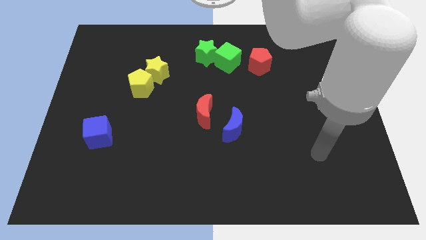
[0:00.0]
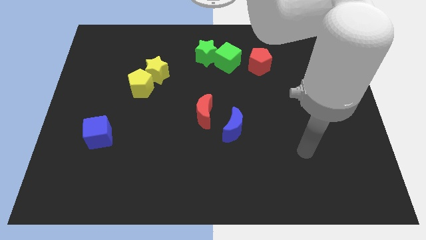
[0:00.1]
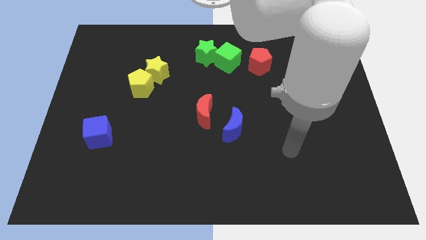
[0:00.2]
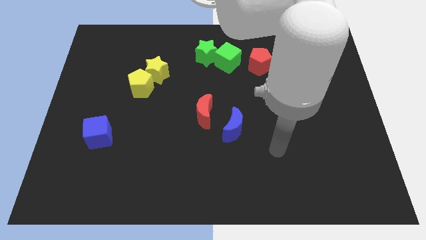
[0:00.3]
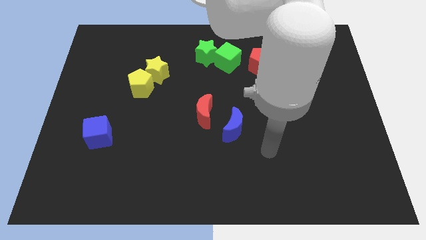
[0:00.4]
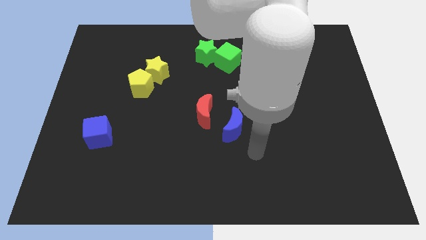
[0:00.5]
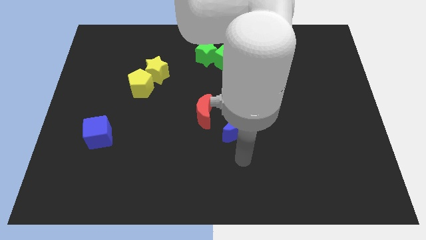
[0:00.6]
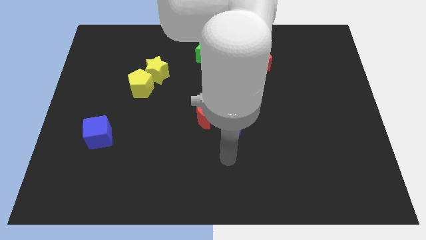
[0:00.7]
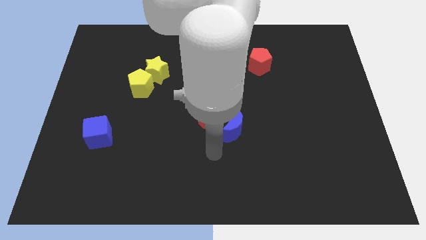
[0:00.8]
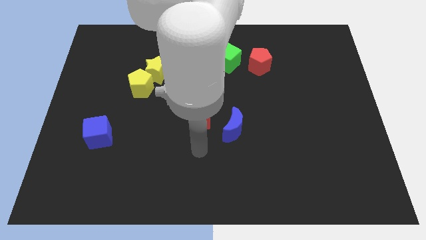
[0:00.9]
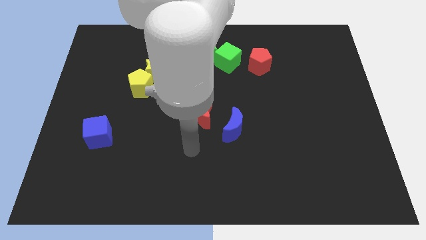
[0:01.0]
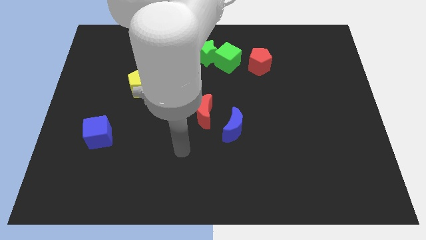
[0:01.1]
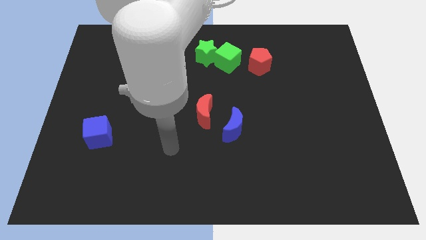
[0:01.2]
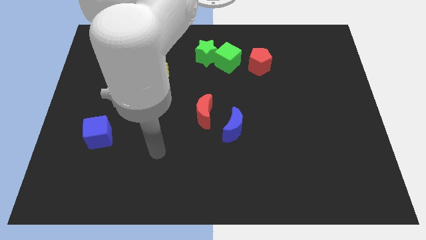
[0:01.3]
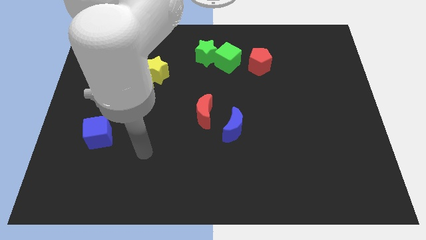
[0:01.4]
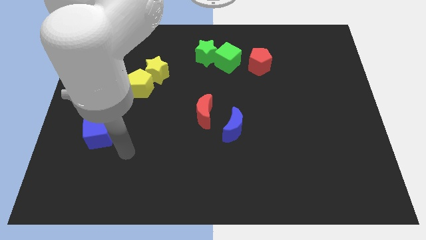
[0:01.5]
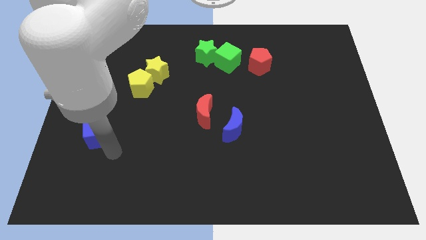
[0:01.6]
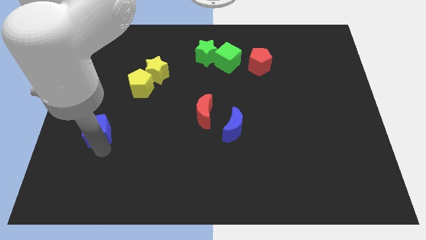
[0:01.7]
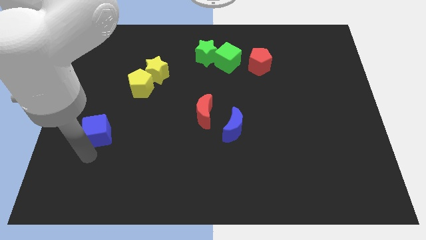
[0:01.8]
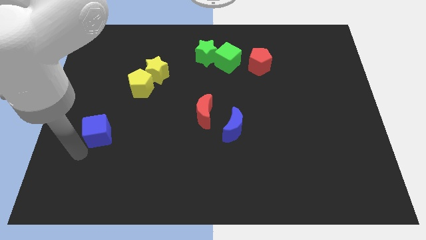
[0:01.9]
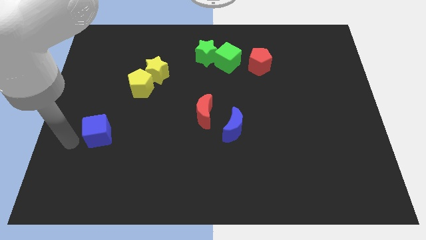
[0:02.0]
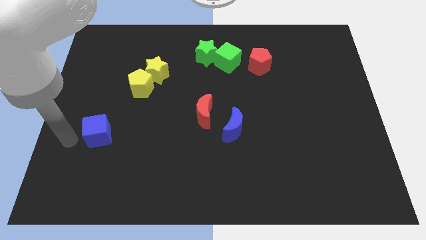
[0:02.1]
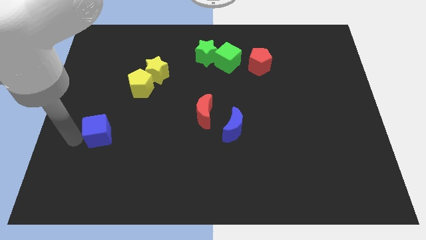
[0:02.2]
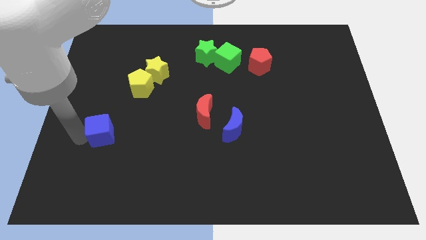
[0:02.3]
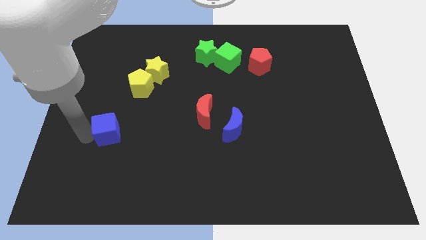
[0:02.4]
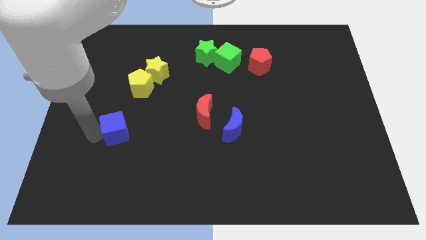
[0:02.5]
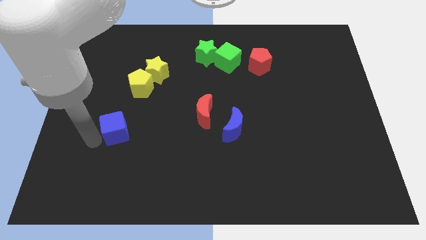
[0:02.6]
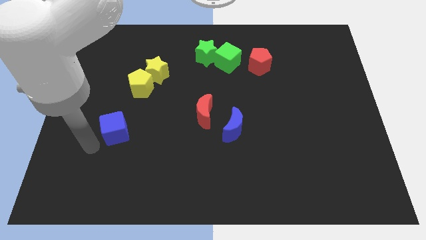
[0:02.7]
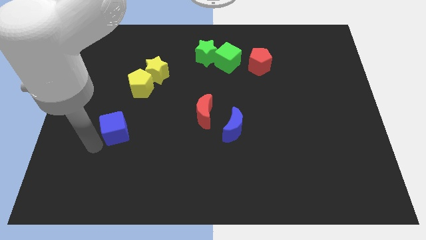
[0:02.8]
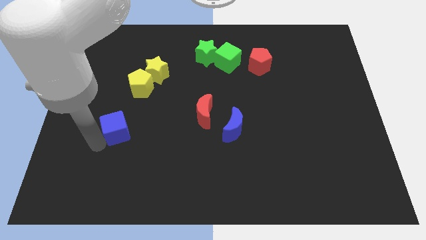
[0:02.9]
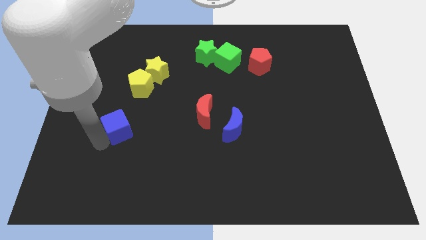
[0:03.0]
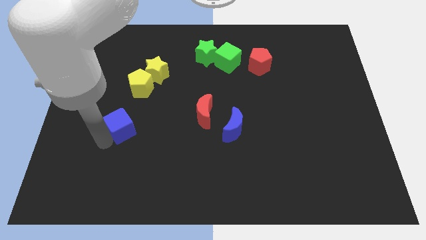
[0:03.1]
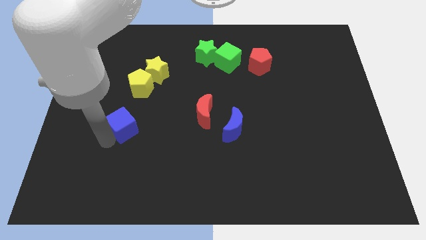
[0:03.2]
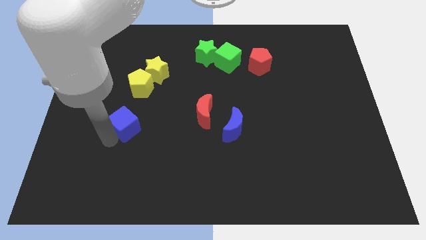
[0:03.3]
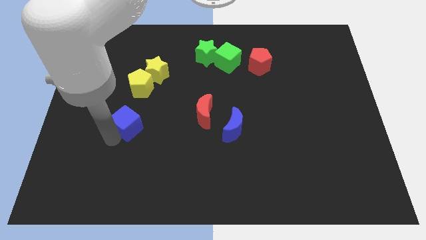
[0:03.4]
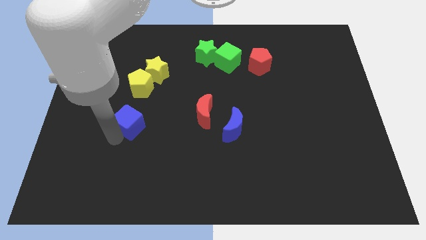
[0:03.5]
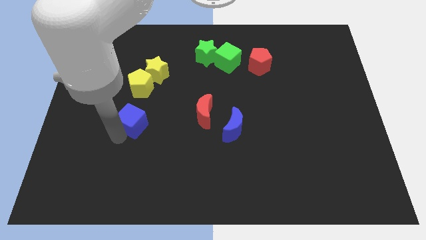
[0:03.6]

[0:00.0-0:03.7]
push the blue cube upwards and right a little

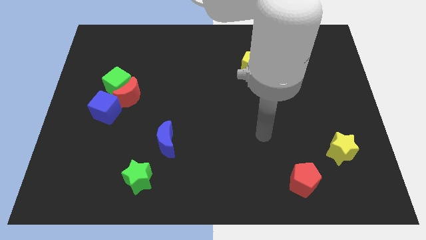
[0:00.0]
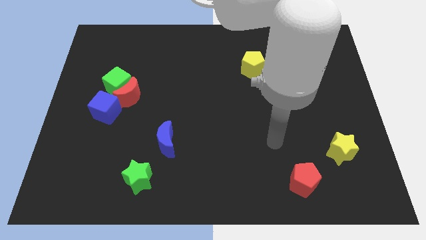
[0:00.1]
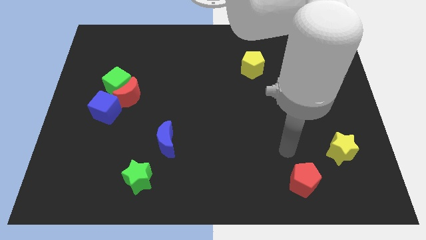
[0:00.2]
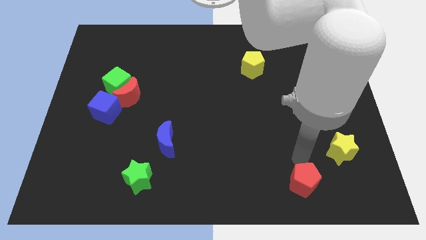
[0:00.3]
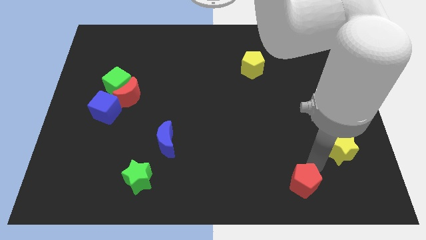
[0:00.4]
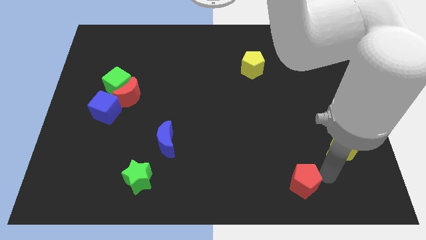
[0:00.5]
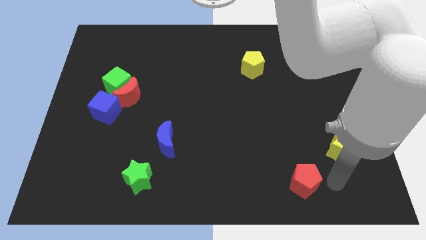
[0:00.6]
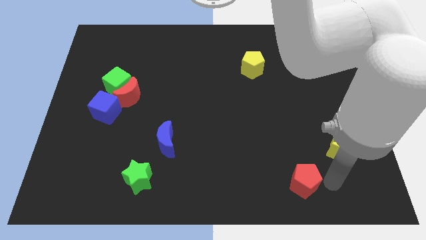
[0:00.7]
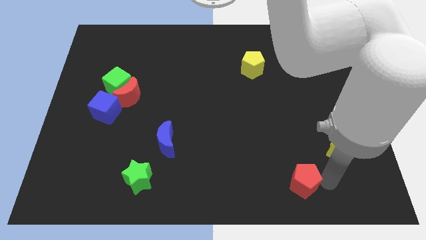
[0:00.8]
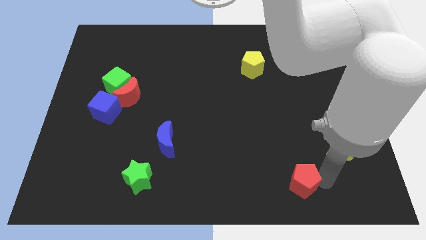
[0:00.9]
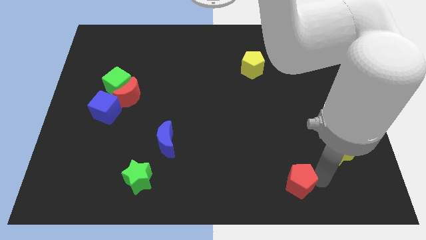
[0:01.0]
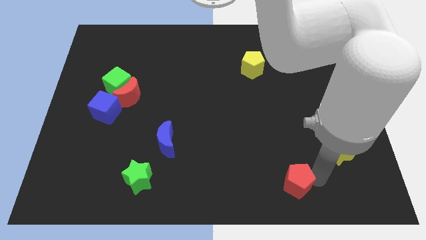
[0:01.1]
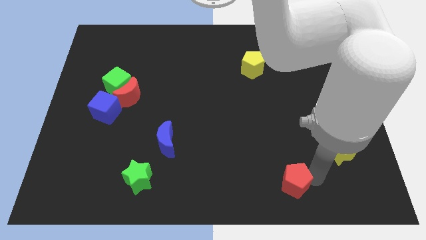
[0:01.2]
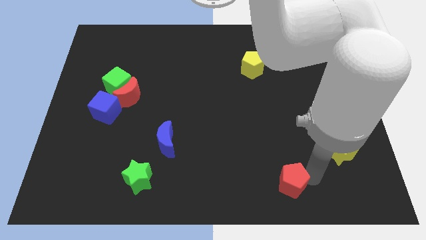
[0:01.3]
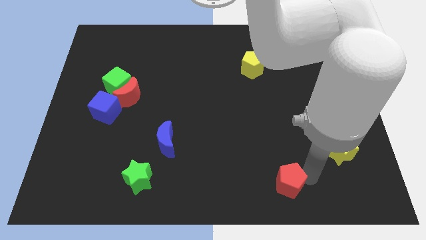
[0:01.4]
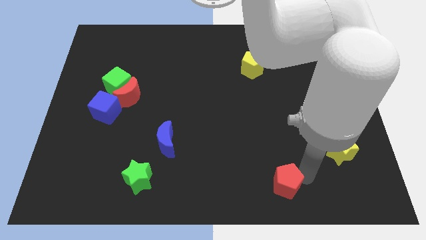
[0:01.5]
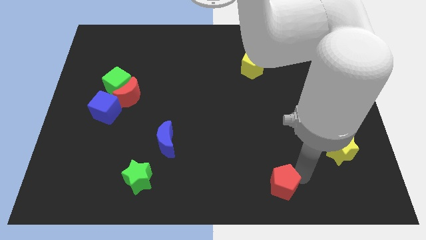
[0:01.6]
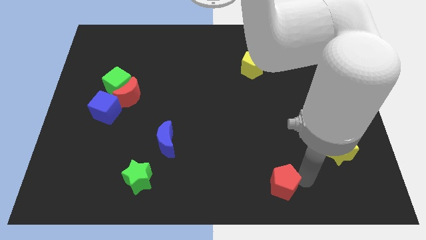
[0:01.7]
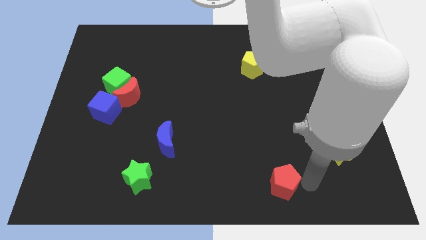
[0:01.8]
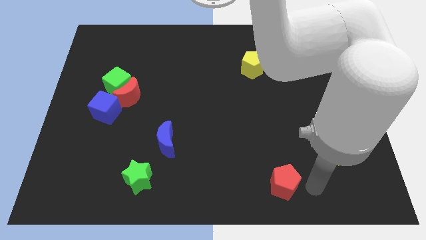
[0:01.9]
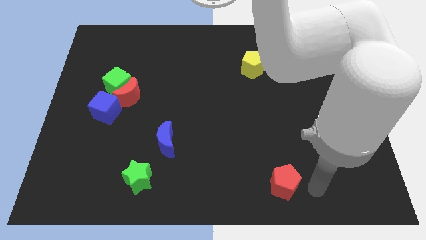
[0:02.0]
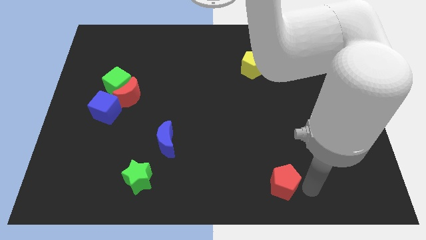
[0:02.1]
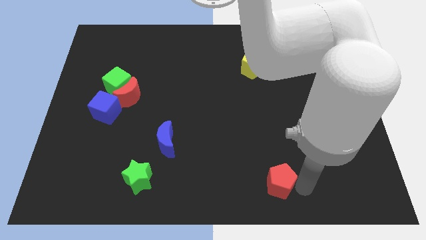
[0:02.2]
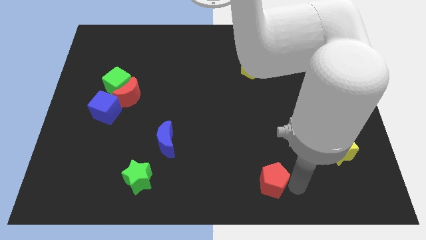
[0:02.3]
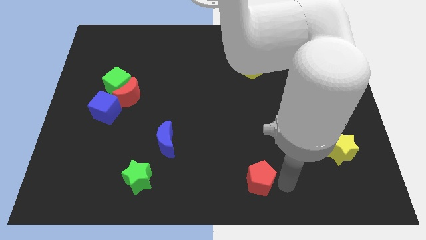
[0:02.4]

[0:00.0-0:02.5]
slightly move the red pentagon to the left

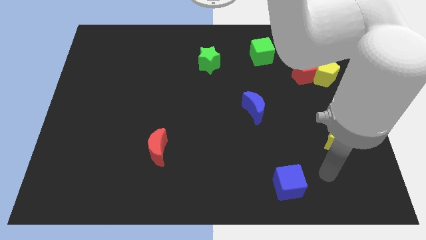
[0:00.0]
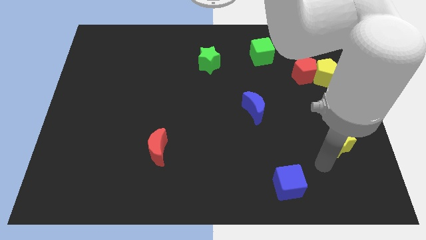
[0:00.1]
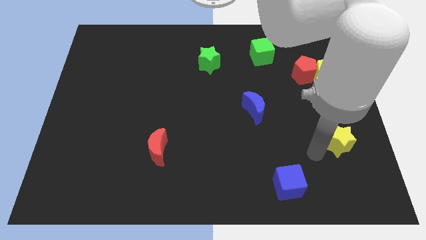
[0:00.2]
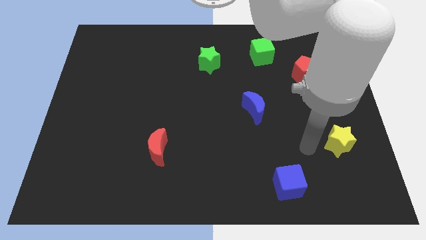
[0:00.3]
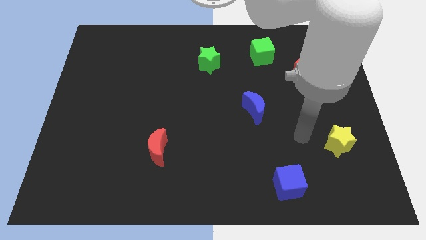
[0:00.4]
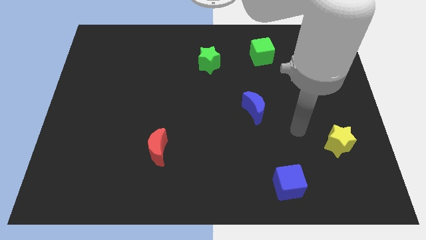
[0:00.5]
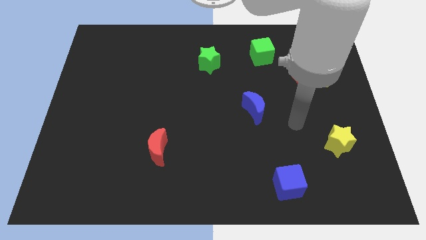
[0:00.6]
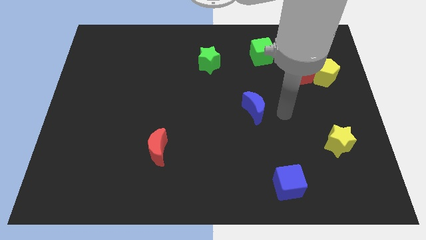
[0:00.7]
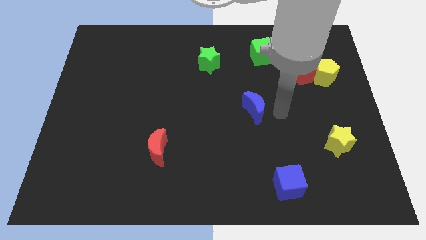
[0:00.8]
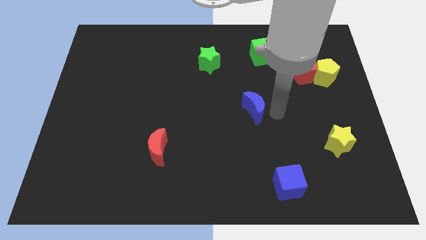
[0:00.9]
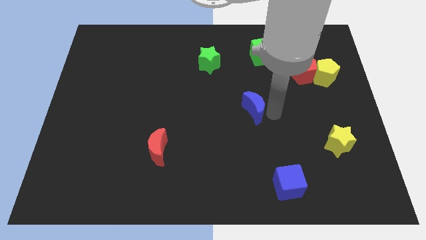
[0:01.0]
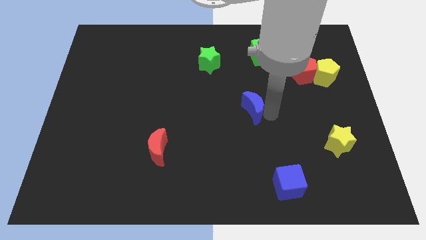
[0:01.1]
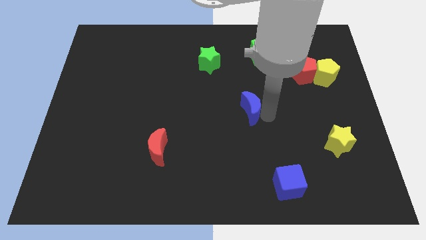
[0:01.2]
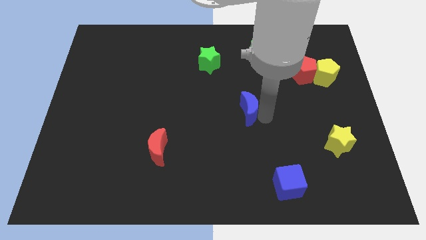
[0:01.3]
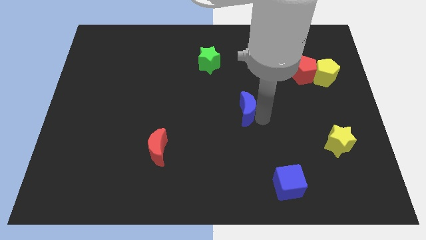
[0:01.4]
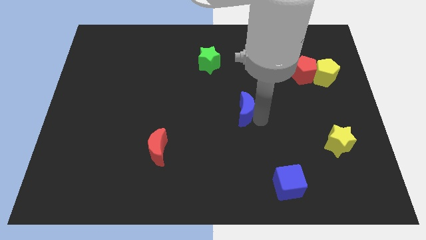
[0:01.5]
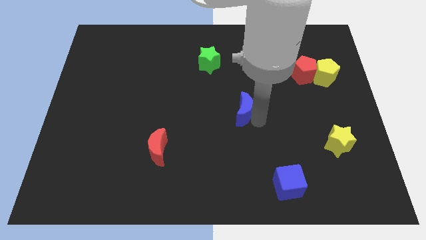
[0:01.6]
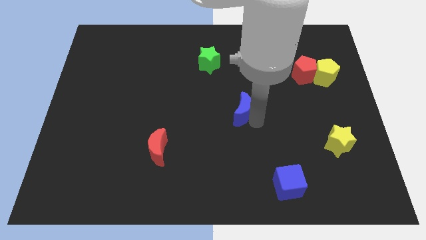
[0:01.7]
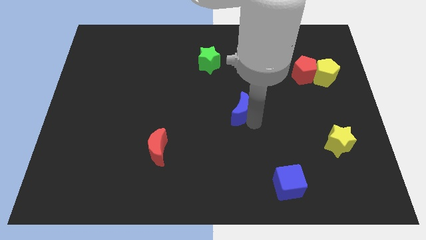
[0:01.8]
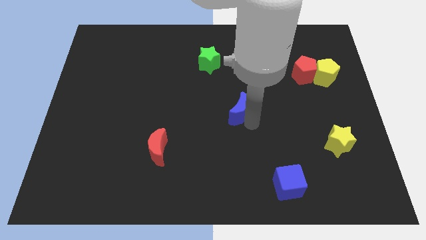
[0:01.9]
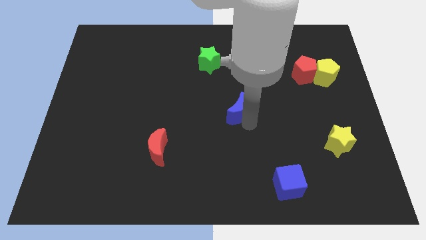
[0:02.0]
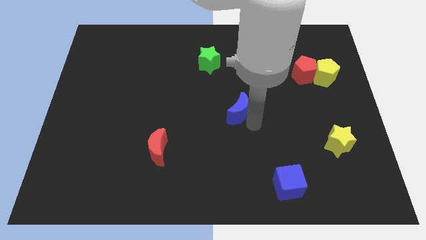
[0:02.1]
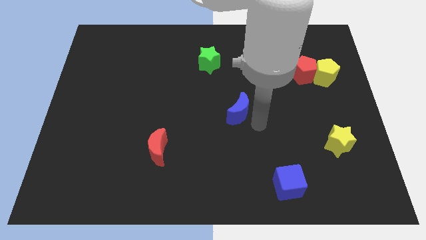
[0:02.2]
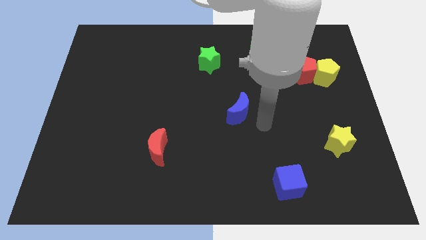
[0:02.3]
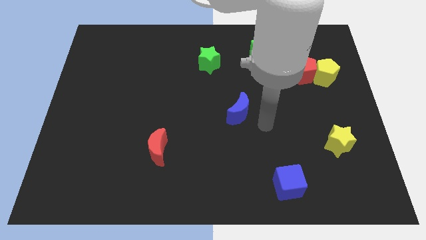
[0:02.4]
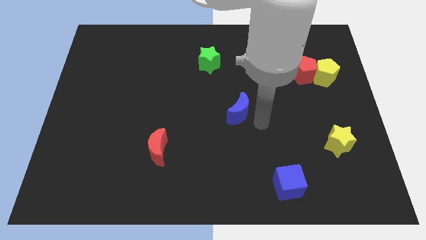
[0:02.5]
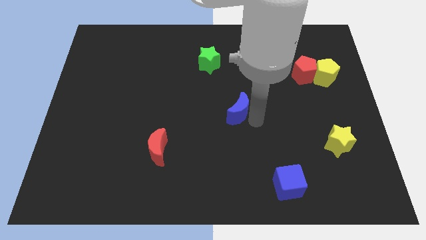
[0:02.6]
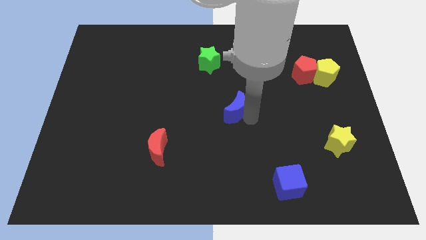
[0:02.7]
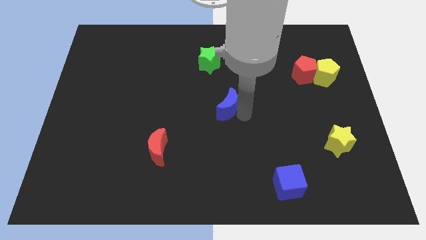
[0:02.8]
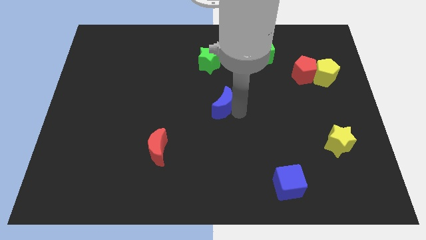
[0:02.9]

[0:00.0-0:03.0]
slightly move the blue moon to the left
